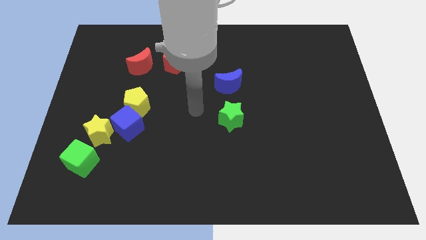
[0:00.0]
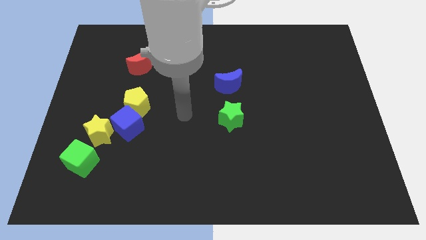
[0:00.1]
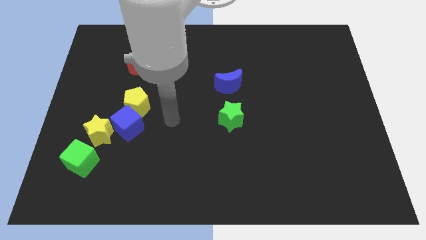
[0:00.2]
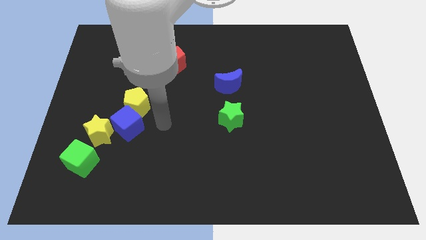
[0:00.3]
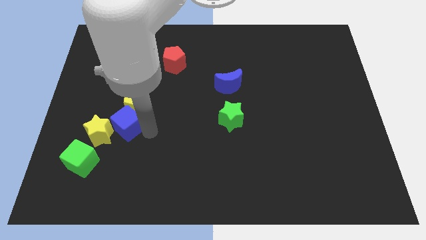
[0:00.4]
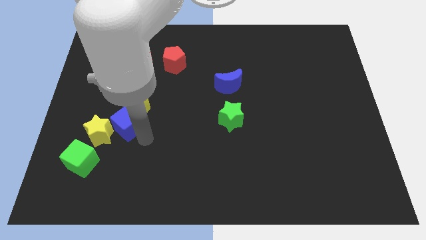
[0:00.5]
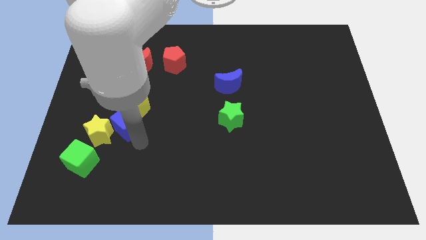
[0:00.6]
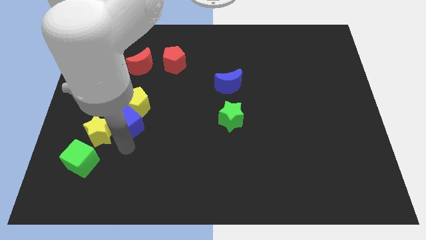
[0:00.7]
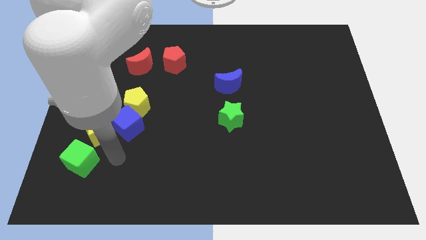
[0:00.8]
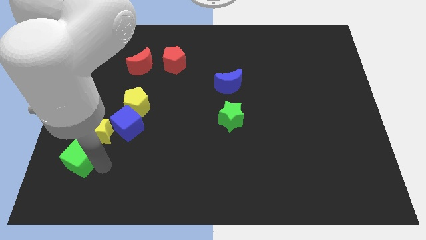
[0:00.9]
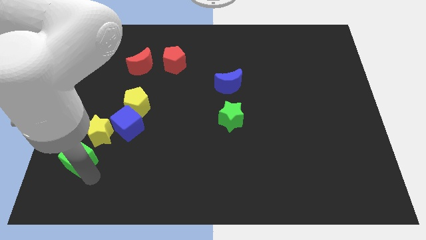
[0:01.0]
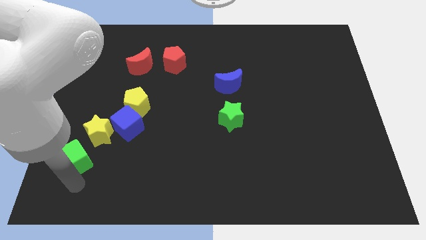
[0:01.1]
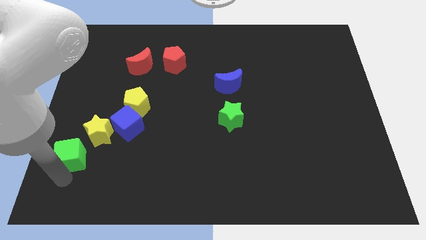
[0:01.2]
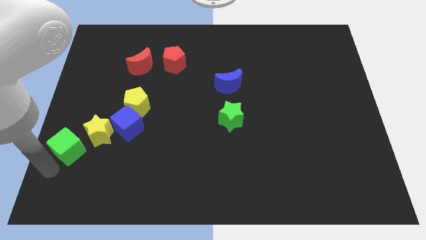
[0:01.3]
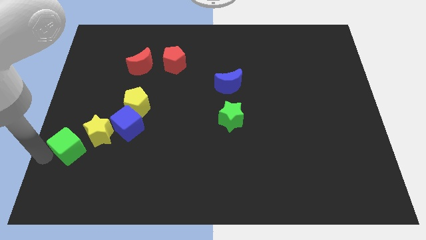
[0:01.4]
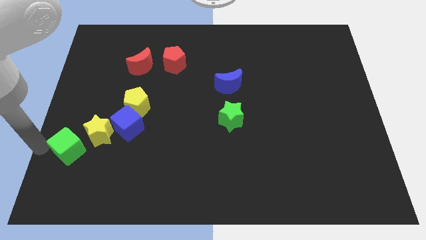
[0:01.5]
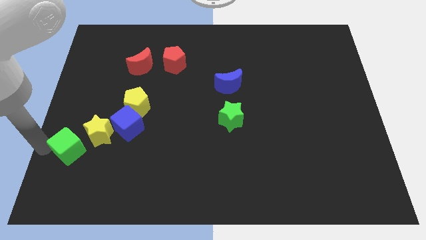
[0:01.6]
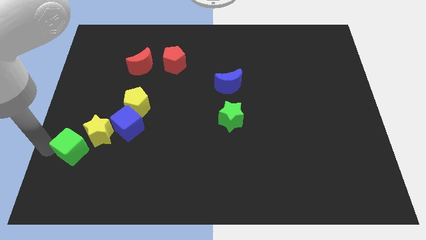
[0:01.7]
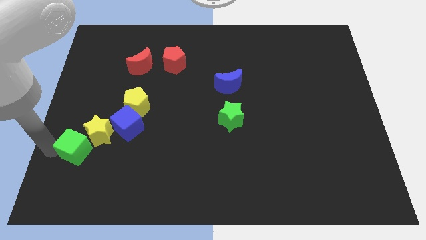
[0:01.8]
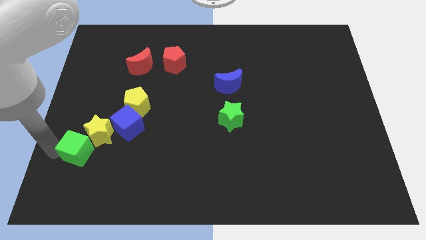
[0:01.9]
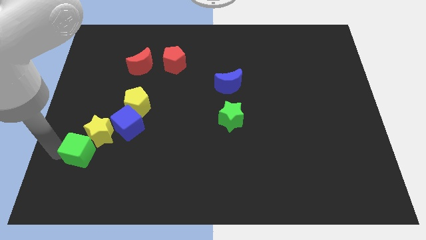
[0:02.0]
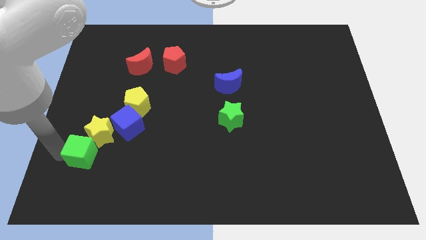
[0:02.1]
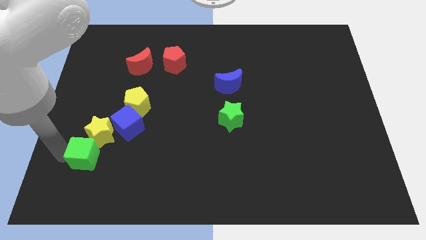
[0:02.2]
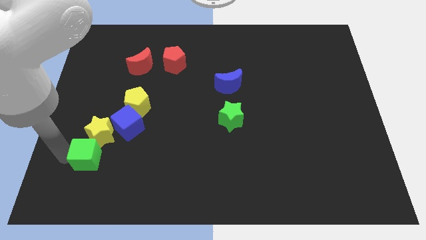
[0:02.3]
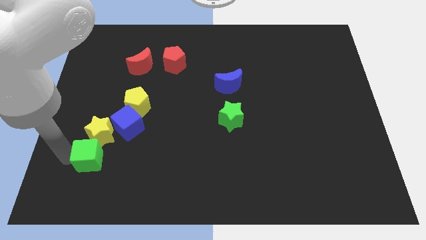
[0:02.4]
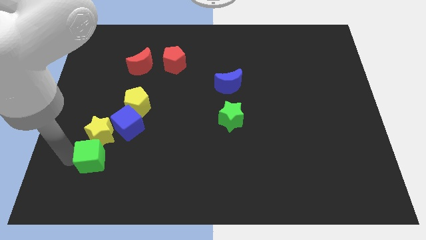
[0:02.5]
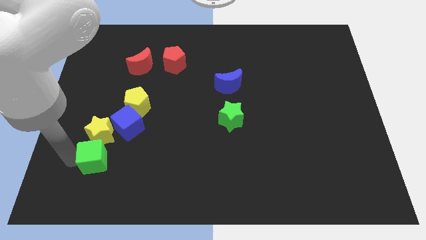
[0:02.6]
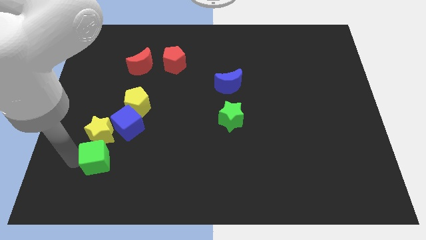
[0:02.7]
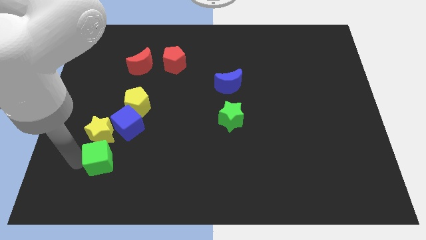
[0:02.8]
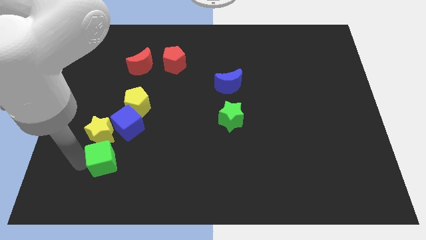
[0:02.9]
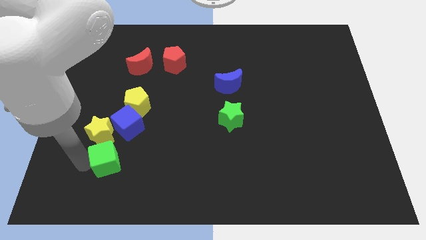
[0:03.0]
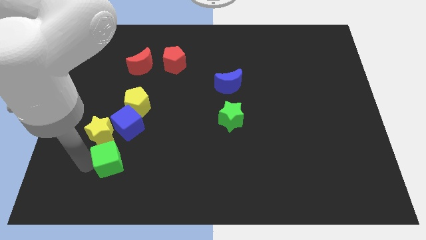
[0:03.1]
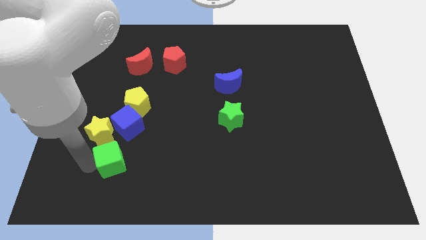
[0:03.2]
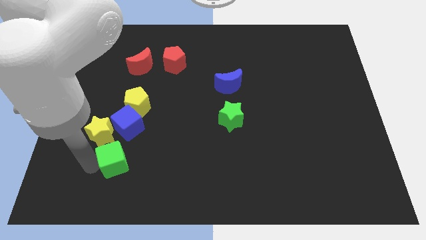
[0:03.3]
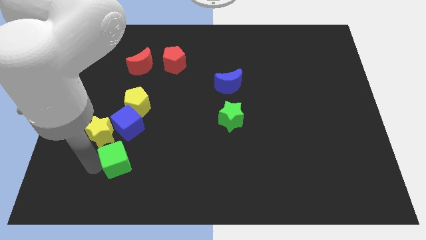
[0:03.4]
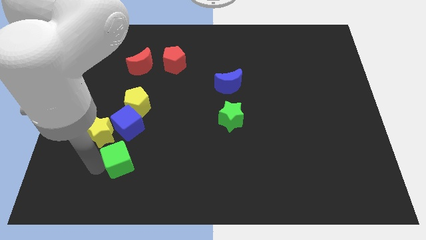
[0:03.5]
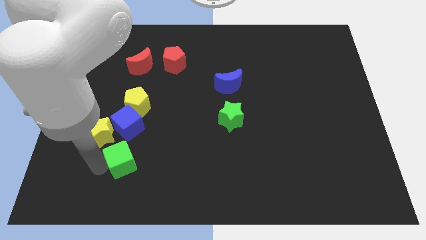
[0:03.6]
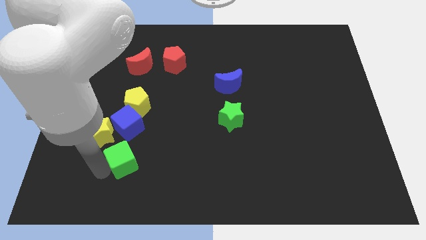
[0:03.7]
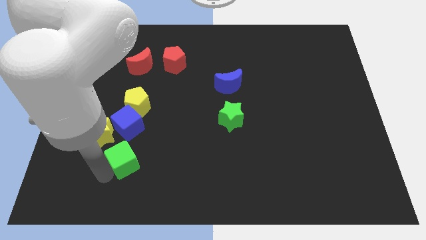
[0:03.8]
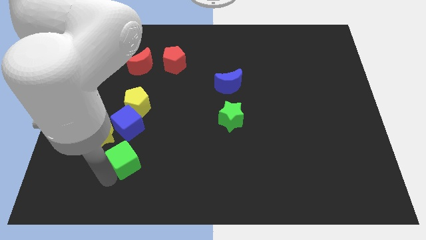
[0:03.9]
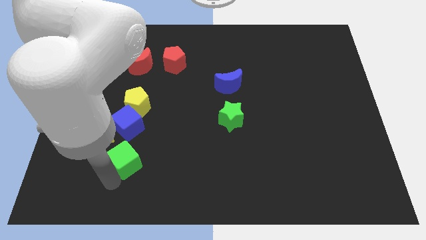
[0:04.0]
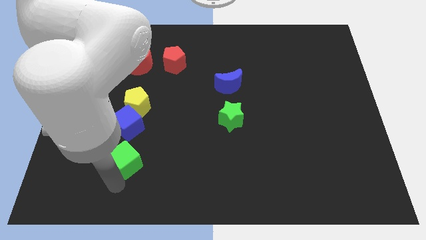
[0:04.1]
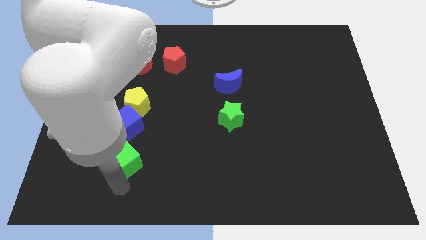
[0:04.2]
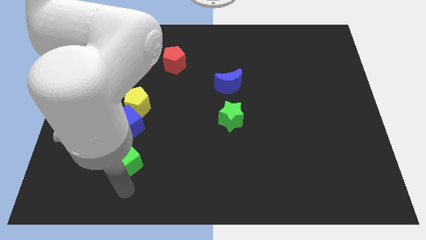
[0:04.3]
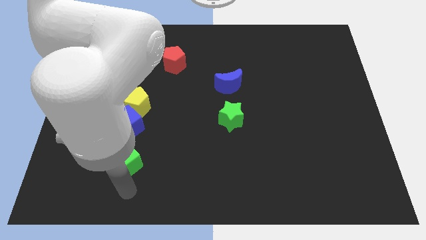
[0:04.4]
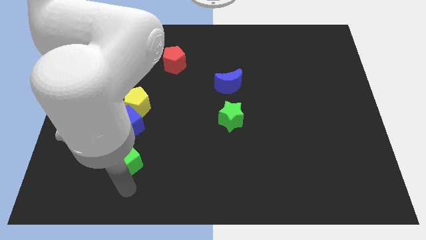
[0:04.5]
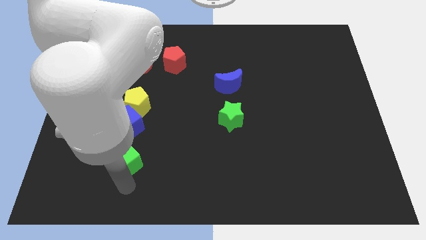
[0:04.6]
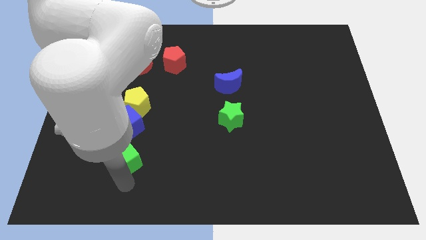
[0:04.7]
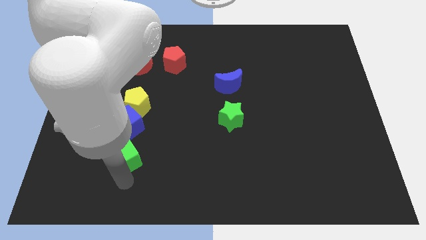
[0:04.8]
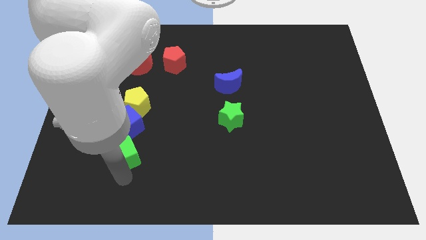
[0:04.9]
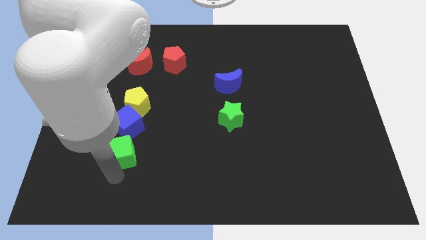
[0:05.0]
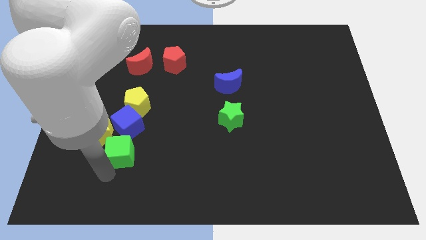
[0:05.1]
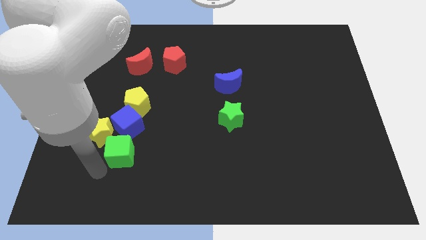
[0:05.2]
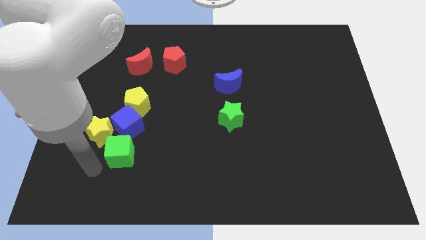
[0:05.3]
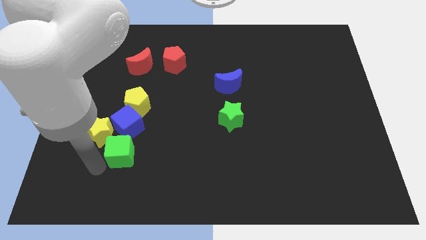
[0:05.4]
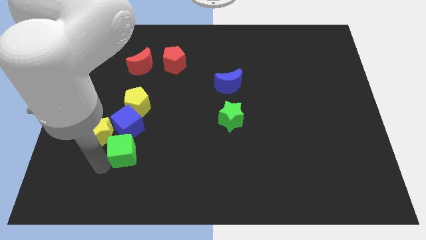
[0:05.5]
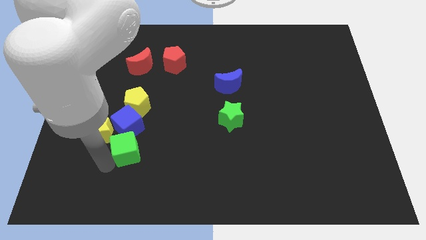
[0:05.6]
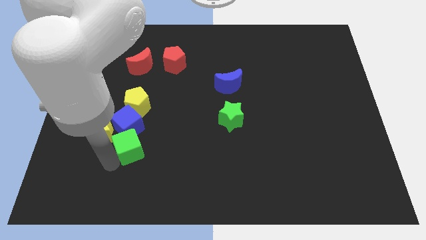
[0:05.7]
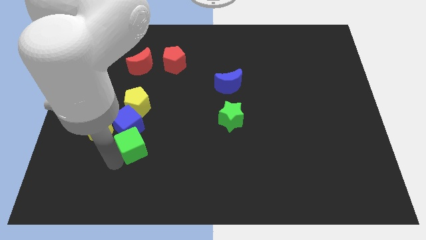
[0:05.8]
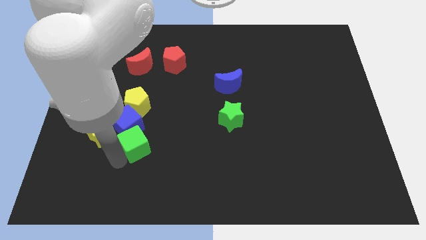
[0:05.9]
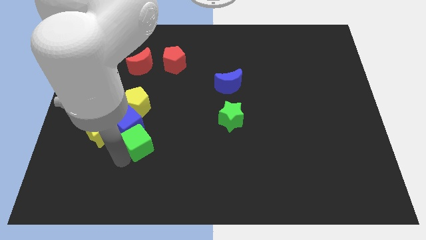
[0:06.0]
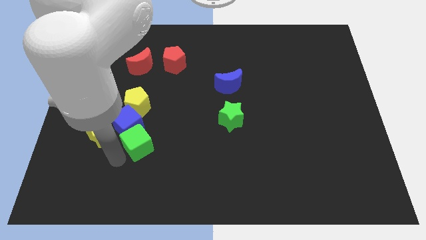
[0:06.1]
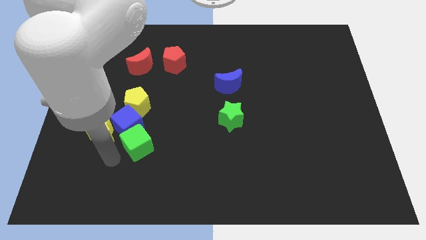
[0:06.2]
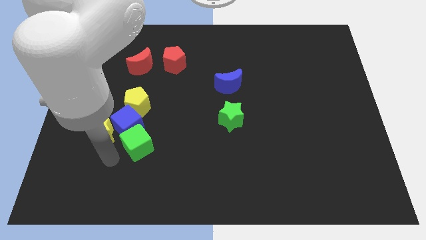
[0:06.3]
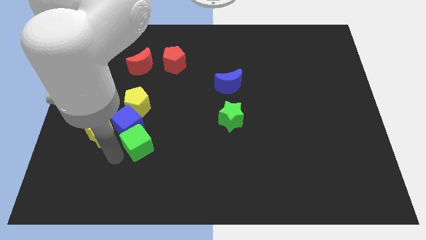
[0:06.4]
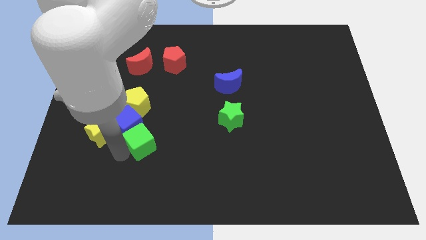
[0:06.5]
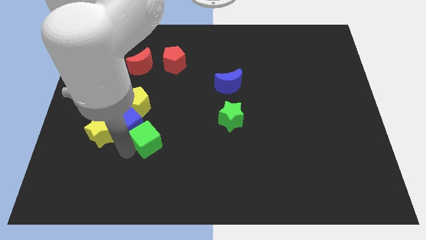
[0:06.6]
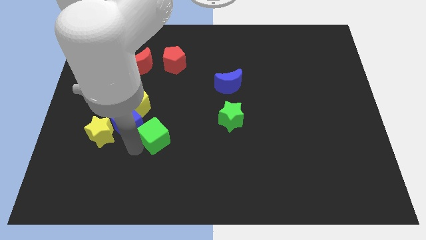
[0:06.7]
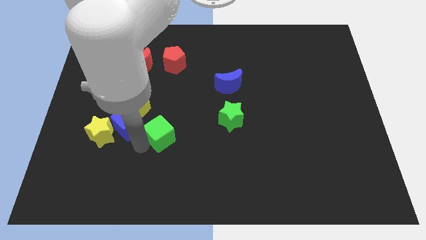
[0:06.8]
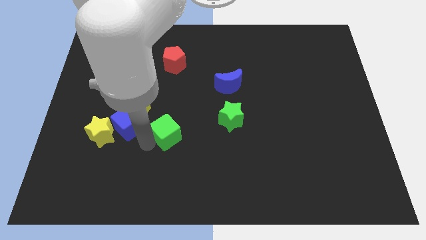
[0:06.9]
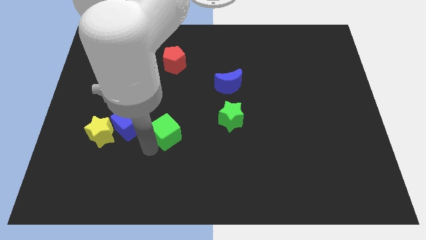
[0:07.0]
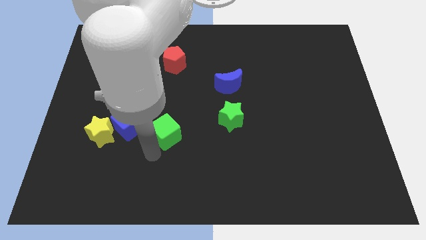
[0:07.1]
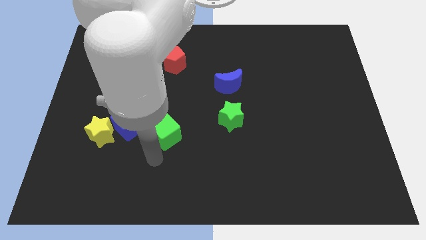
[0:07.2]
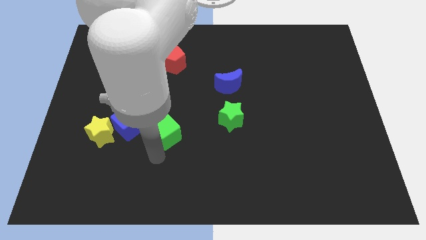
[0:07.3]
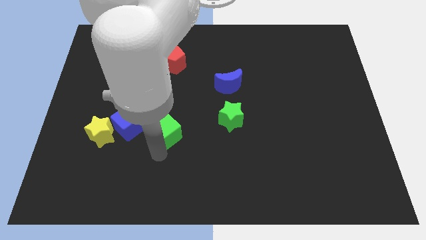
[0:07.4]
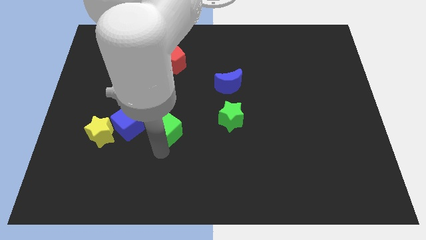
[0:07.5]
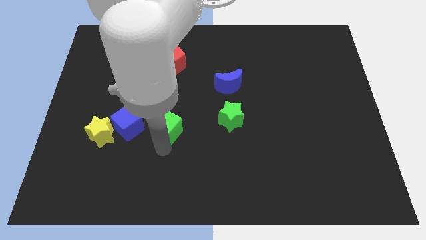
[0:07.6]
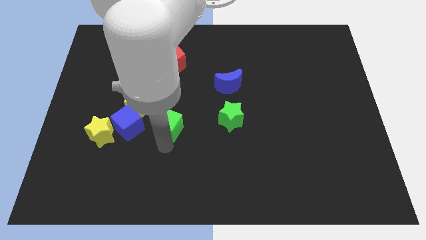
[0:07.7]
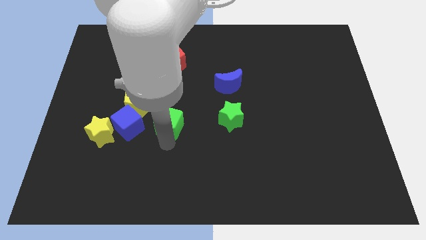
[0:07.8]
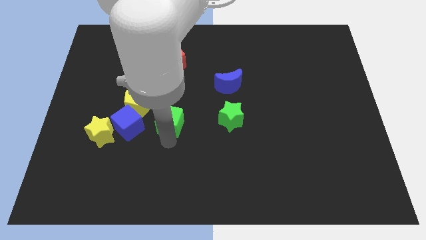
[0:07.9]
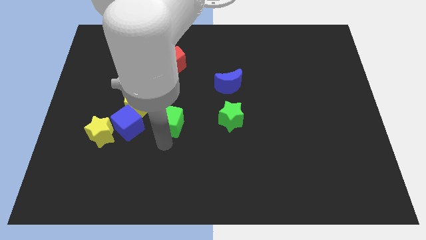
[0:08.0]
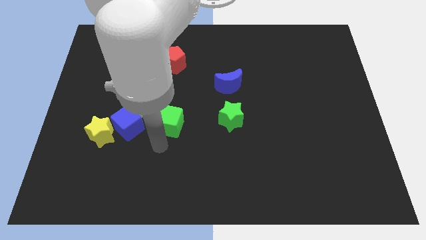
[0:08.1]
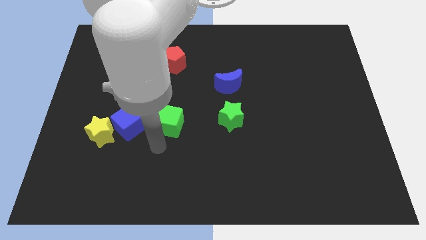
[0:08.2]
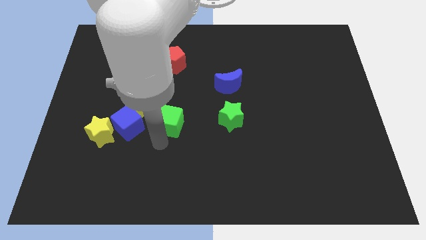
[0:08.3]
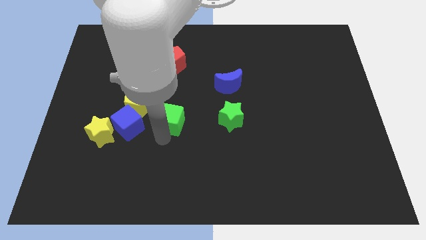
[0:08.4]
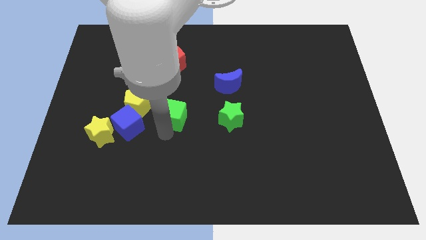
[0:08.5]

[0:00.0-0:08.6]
push the green cube upwards and to the right
